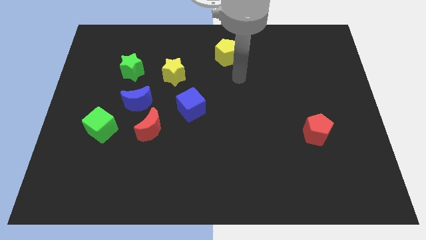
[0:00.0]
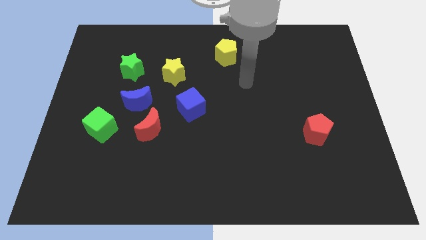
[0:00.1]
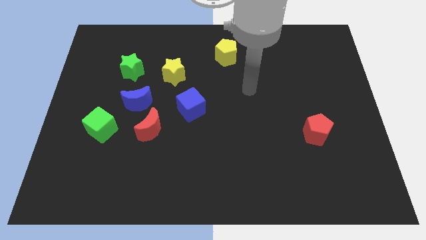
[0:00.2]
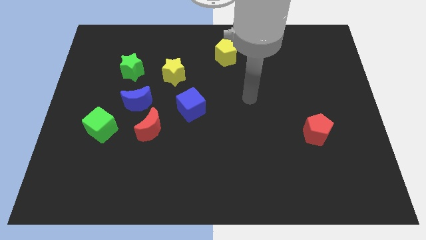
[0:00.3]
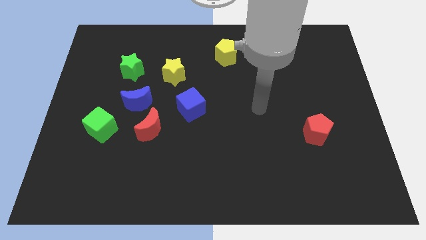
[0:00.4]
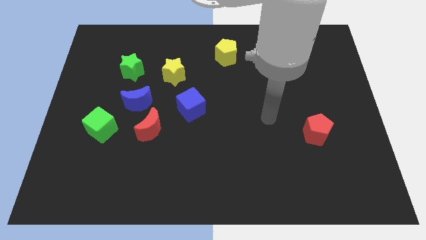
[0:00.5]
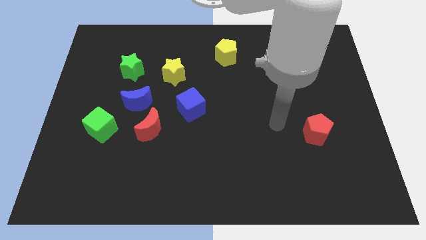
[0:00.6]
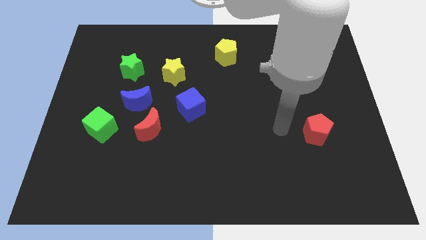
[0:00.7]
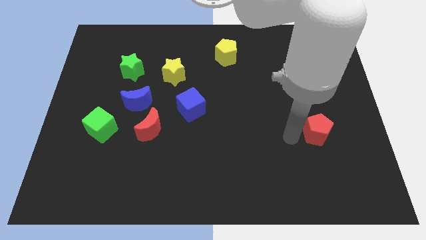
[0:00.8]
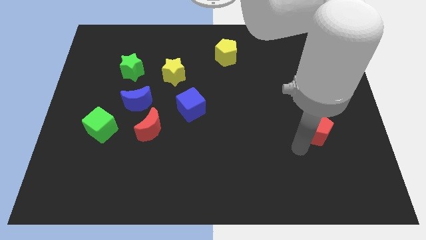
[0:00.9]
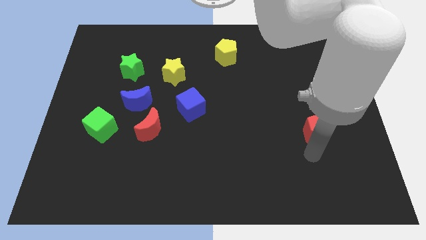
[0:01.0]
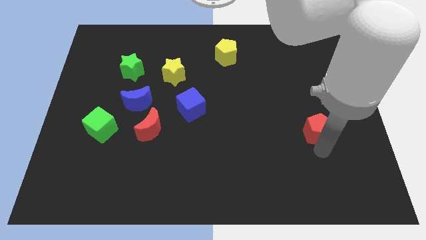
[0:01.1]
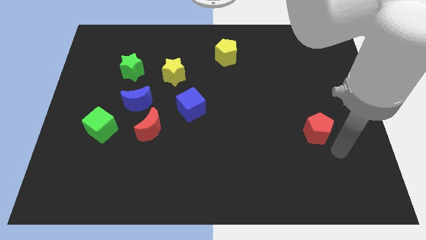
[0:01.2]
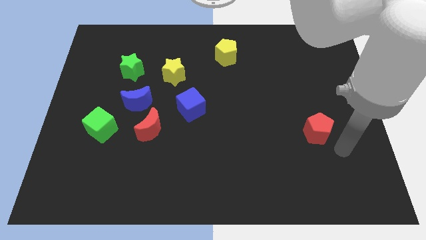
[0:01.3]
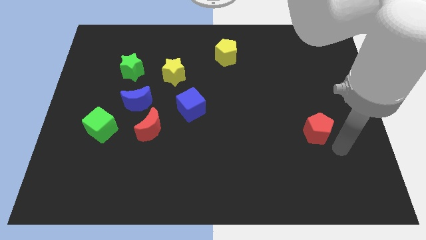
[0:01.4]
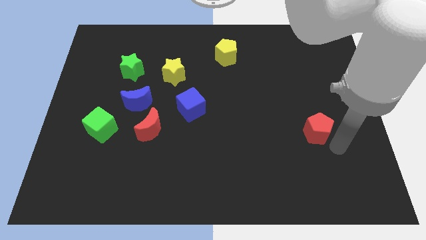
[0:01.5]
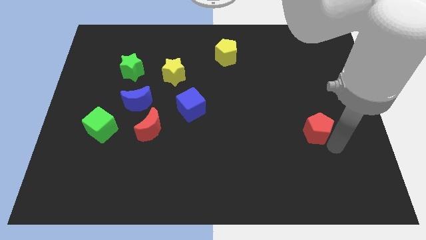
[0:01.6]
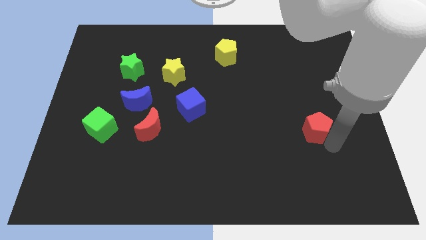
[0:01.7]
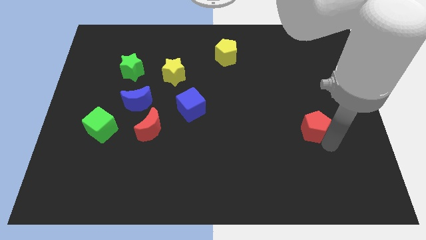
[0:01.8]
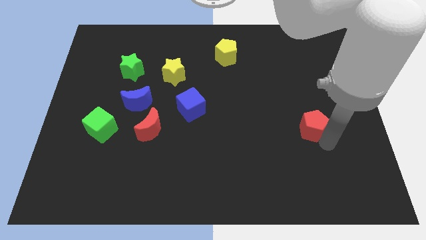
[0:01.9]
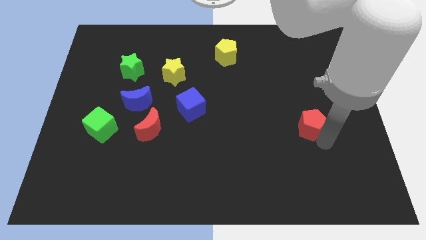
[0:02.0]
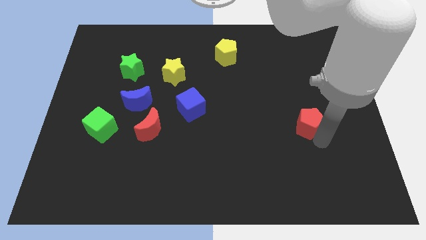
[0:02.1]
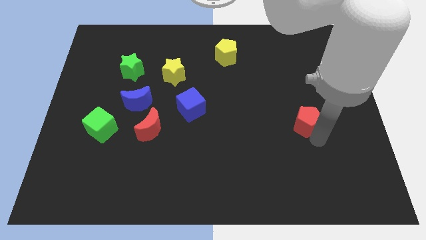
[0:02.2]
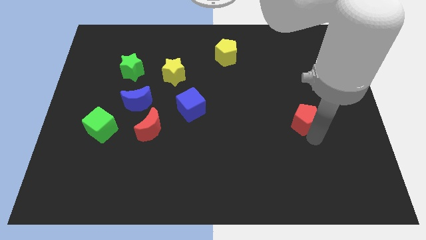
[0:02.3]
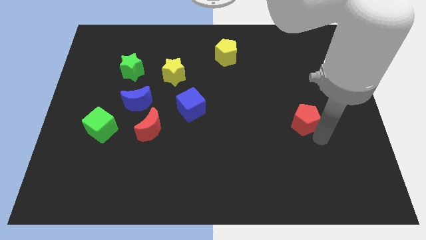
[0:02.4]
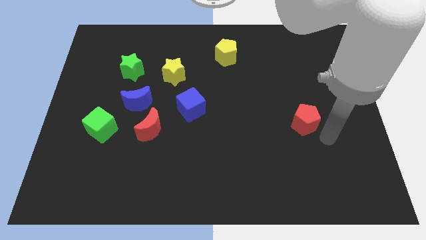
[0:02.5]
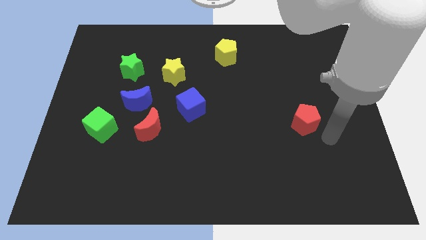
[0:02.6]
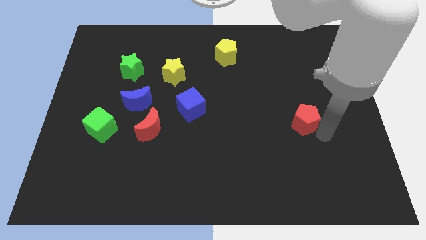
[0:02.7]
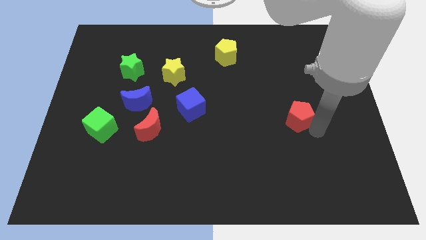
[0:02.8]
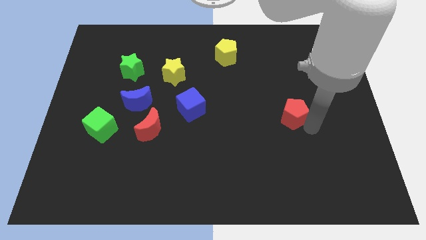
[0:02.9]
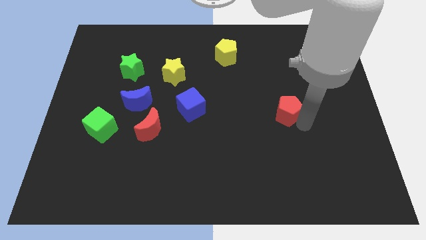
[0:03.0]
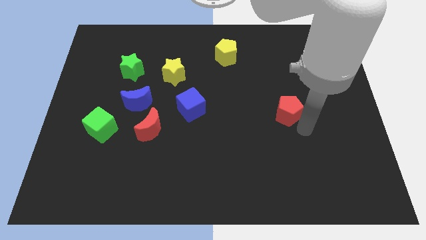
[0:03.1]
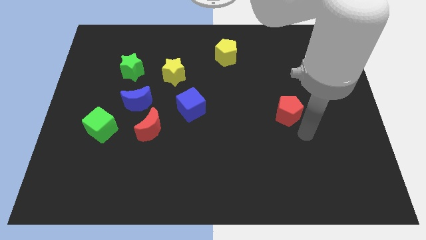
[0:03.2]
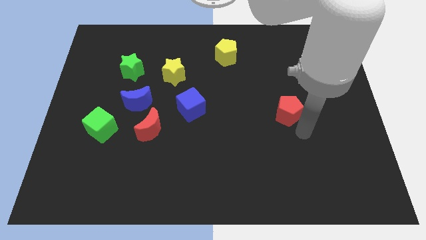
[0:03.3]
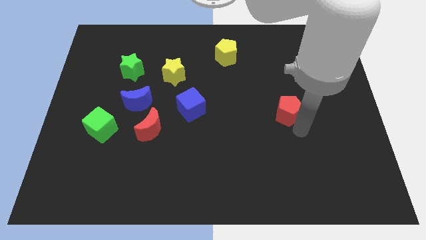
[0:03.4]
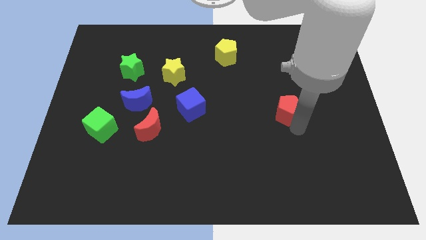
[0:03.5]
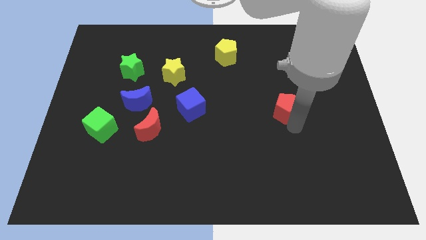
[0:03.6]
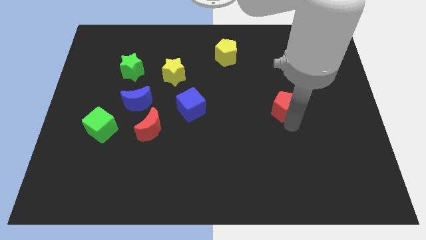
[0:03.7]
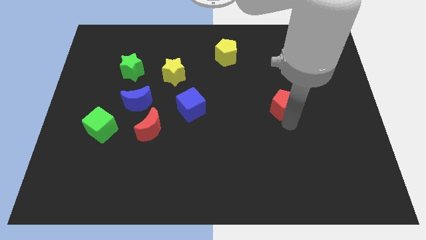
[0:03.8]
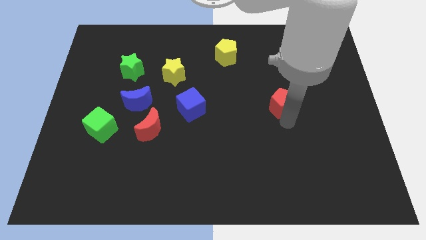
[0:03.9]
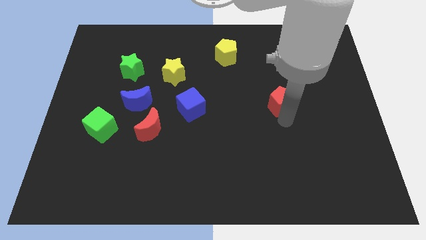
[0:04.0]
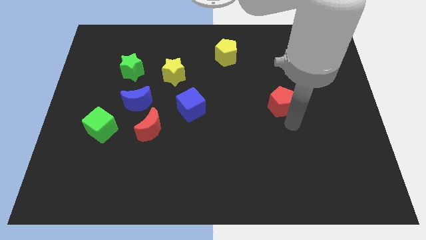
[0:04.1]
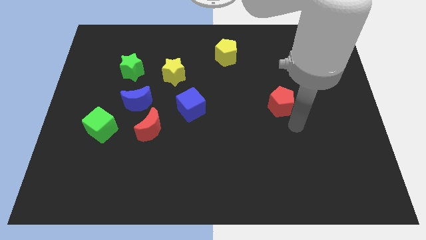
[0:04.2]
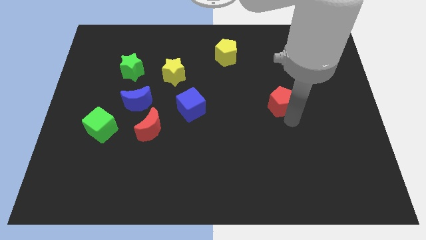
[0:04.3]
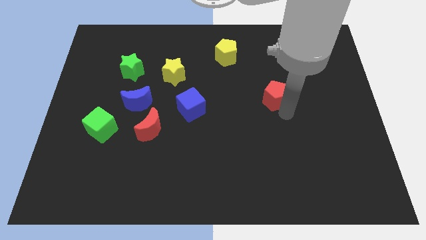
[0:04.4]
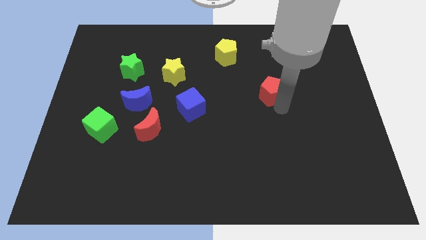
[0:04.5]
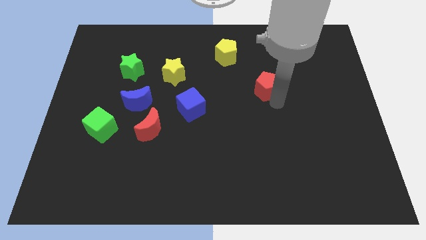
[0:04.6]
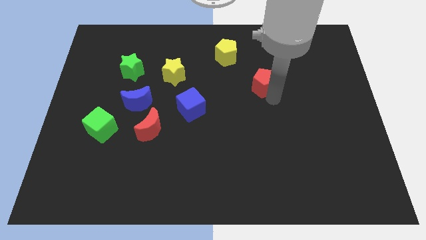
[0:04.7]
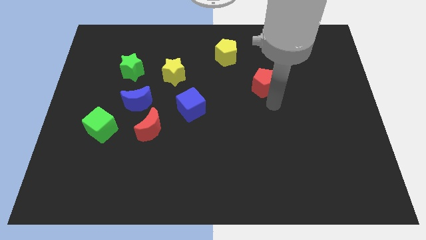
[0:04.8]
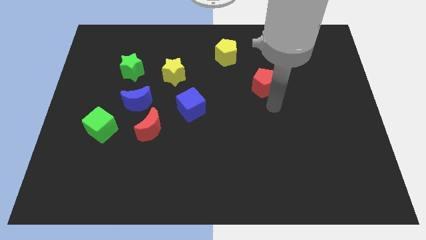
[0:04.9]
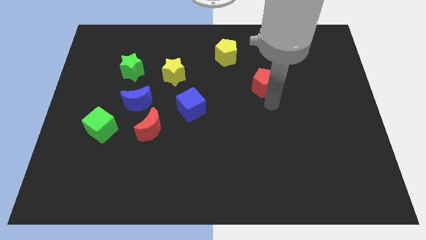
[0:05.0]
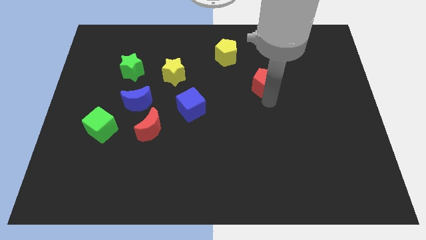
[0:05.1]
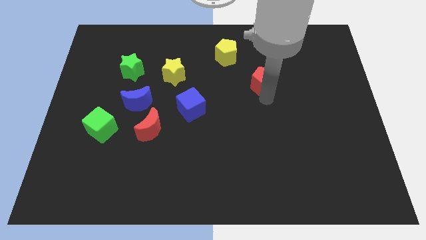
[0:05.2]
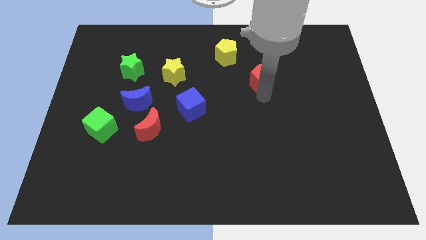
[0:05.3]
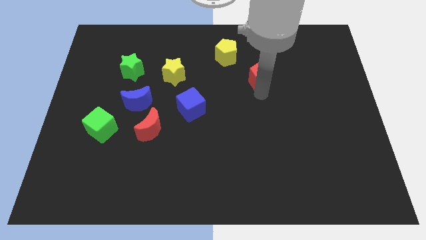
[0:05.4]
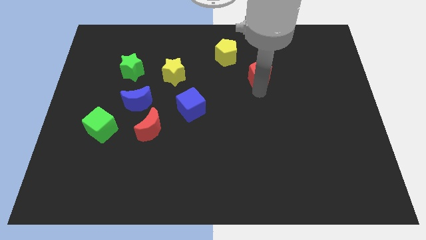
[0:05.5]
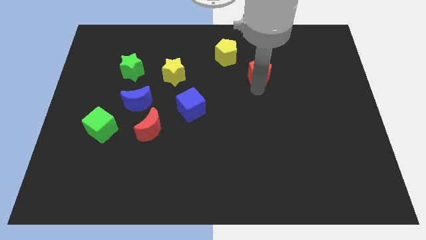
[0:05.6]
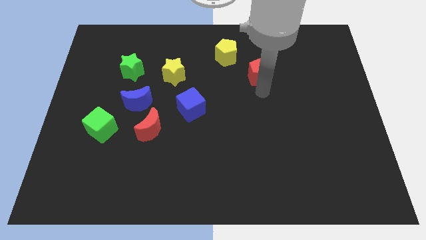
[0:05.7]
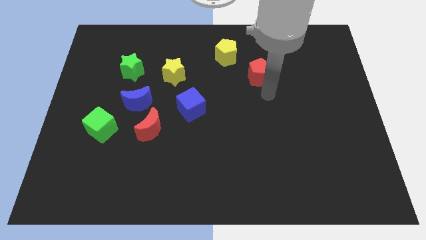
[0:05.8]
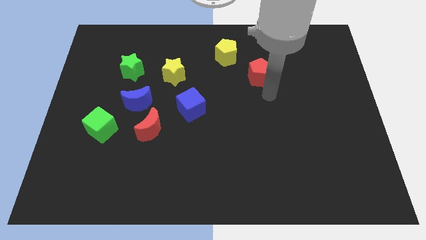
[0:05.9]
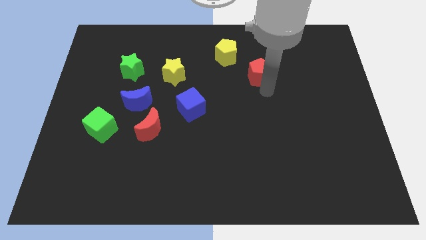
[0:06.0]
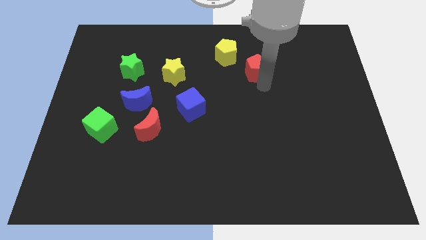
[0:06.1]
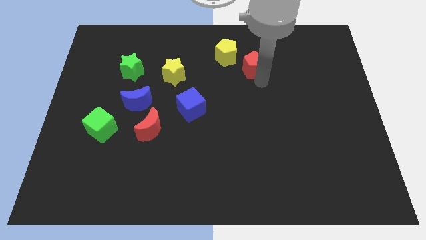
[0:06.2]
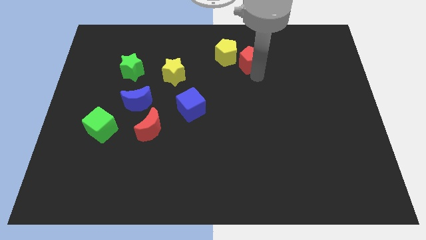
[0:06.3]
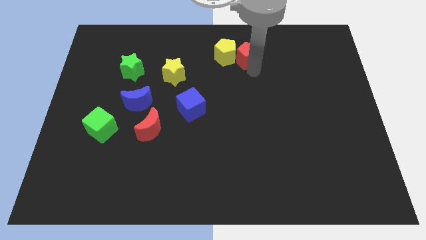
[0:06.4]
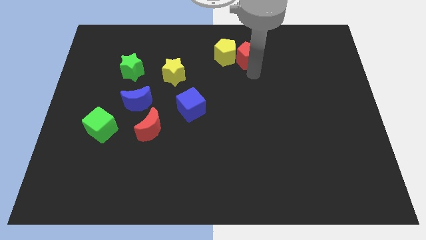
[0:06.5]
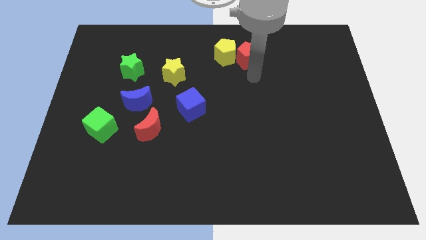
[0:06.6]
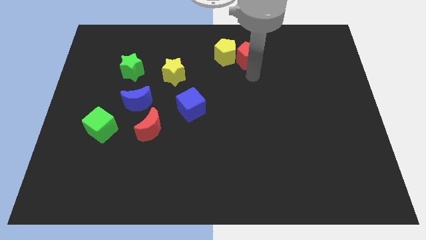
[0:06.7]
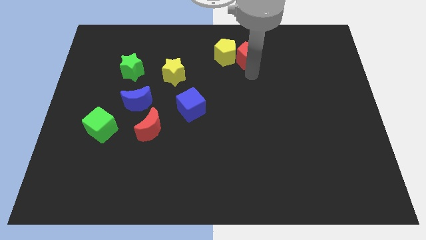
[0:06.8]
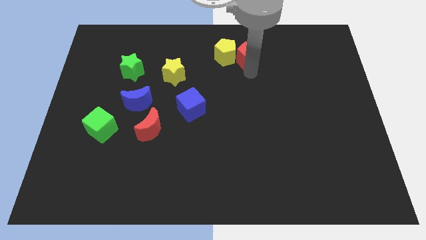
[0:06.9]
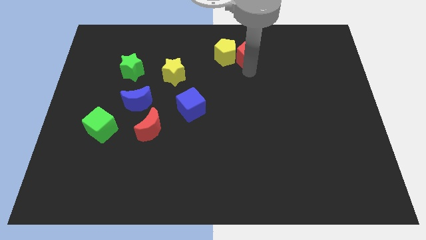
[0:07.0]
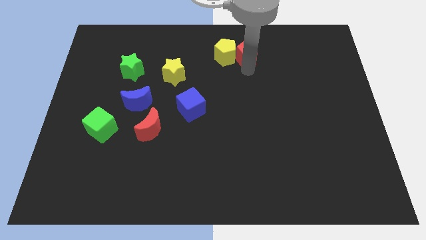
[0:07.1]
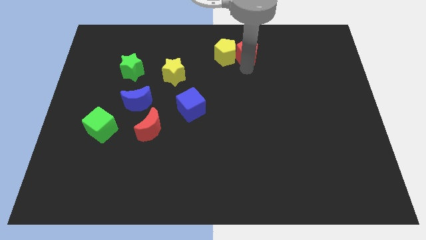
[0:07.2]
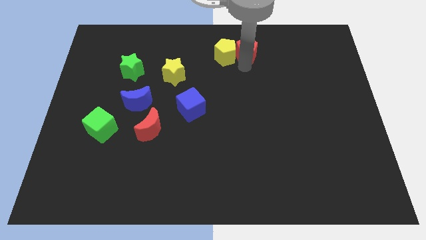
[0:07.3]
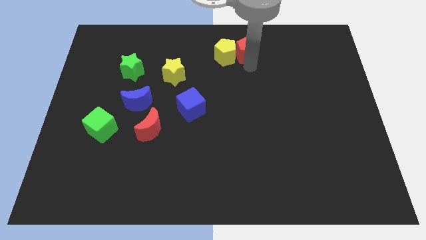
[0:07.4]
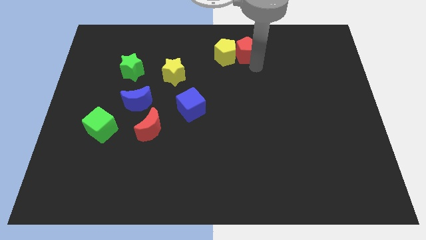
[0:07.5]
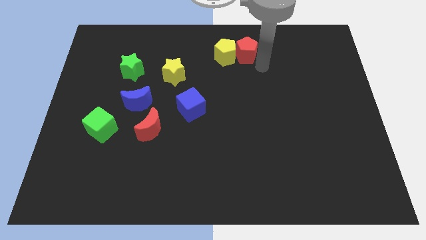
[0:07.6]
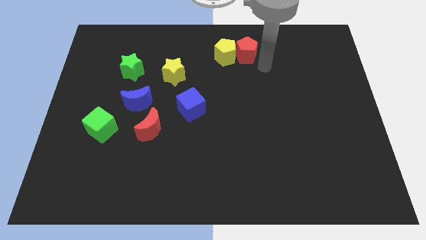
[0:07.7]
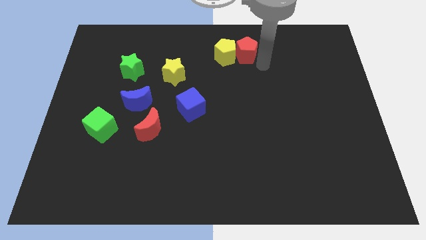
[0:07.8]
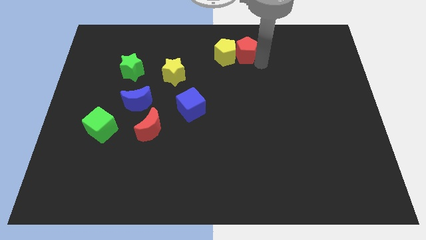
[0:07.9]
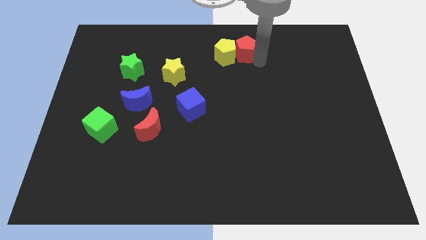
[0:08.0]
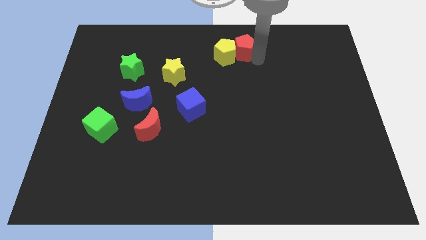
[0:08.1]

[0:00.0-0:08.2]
put the red pentagon to the towards your base
